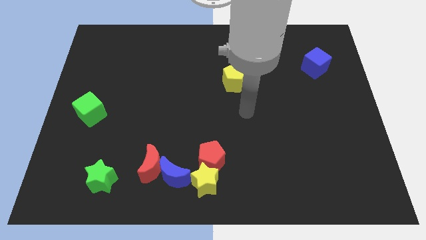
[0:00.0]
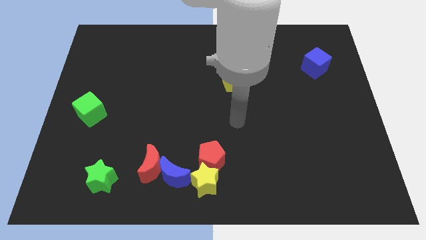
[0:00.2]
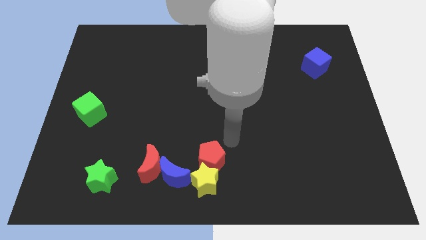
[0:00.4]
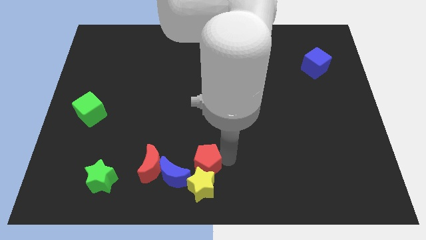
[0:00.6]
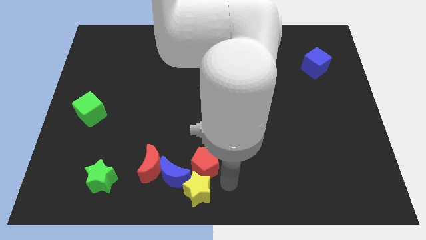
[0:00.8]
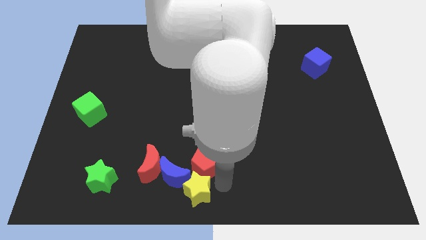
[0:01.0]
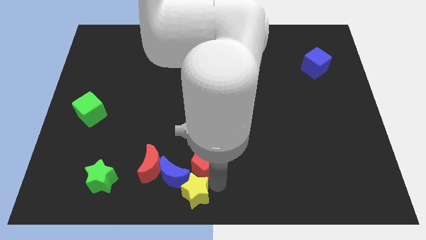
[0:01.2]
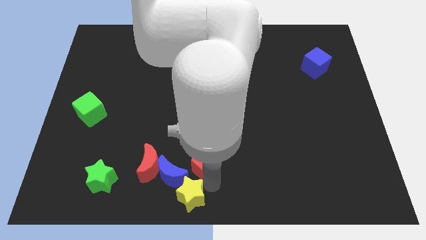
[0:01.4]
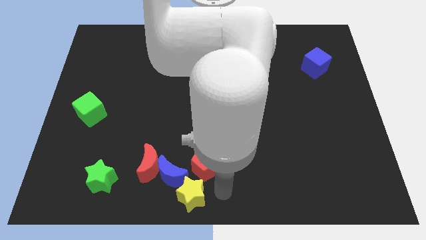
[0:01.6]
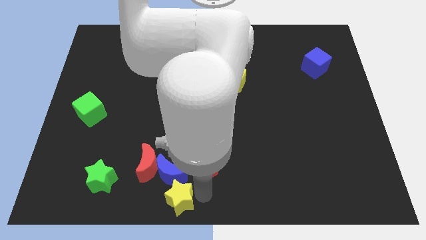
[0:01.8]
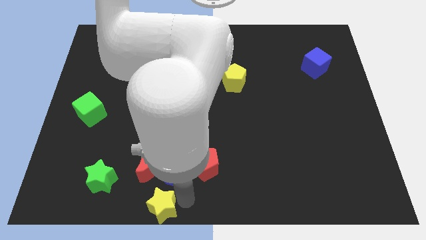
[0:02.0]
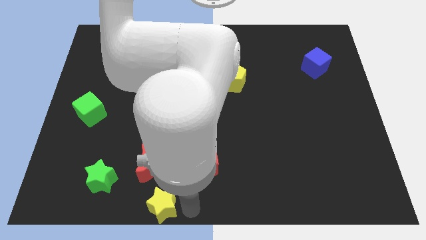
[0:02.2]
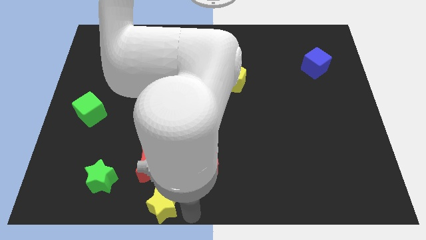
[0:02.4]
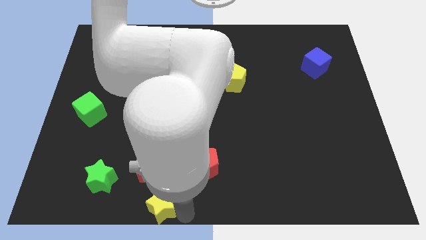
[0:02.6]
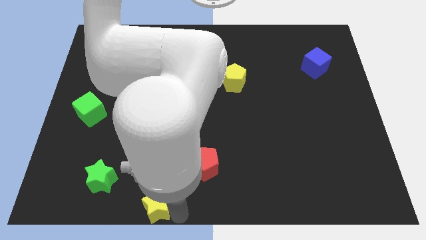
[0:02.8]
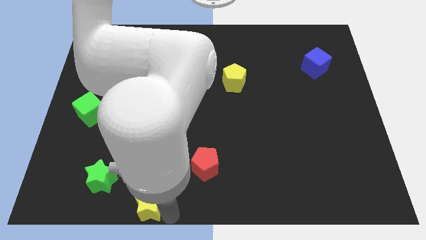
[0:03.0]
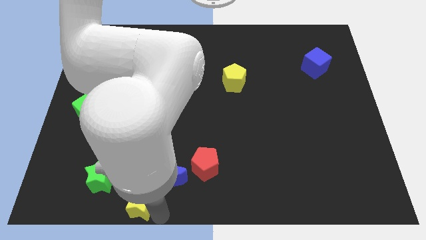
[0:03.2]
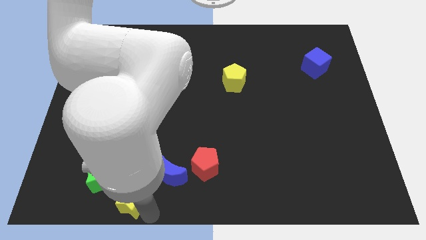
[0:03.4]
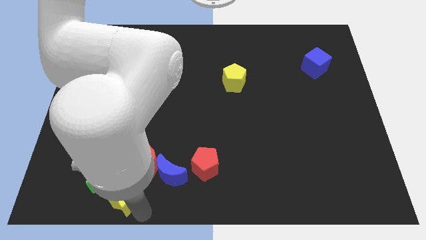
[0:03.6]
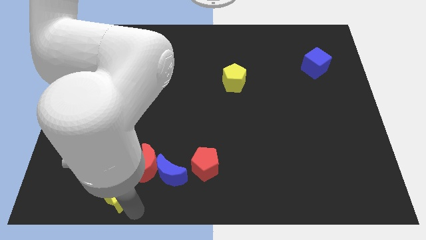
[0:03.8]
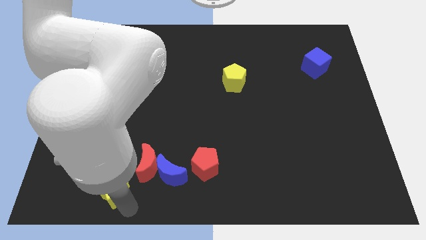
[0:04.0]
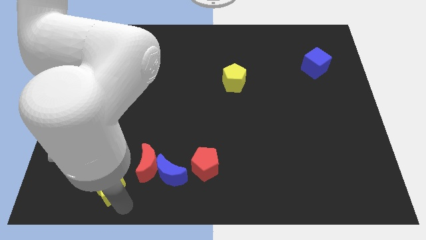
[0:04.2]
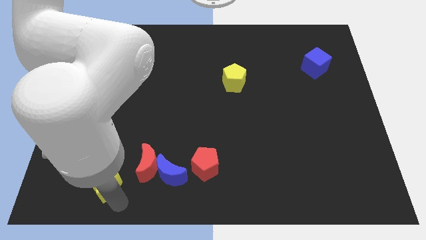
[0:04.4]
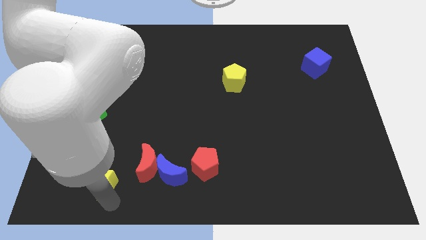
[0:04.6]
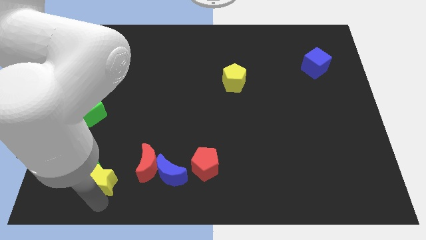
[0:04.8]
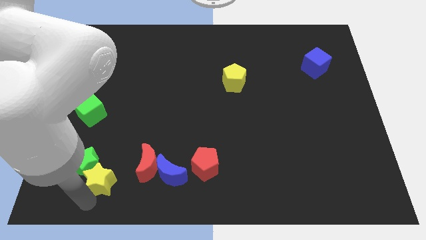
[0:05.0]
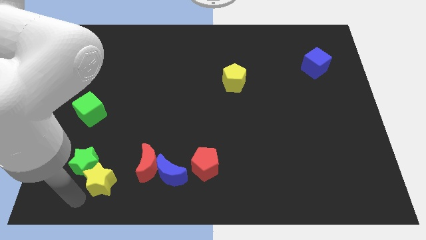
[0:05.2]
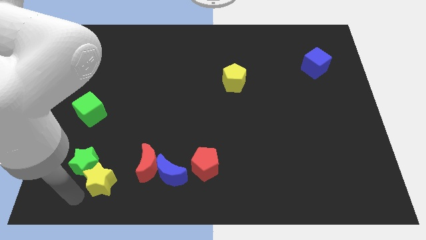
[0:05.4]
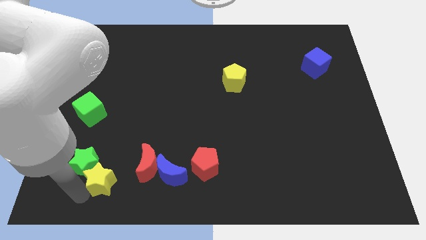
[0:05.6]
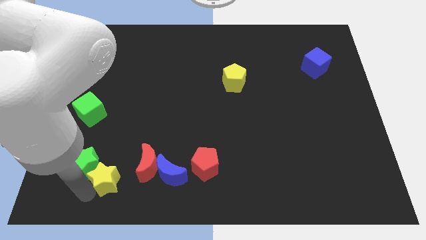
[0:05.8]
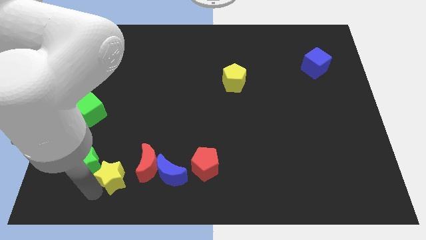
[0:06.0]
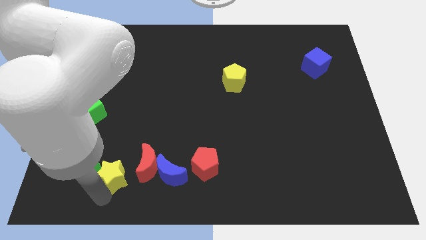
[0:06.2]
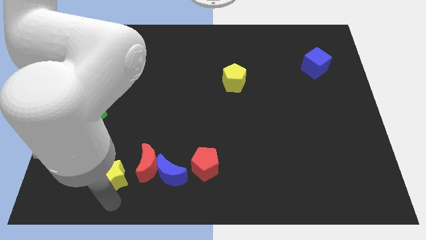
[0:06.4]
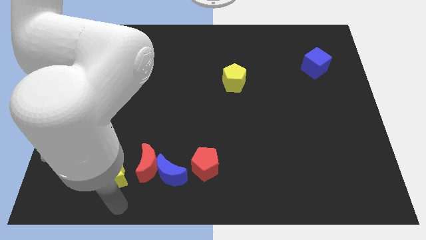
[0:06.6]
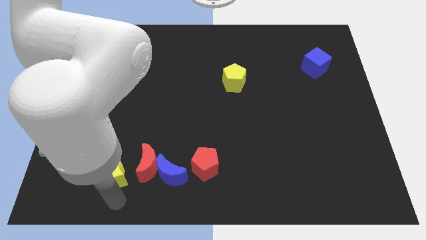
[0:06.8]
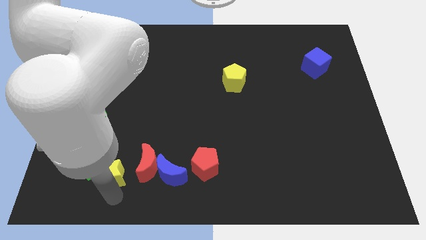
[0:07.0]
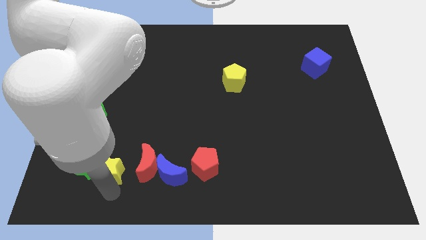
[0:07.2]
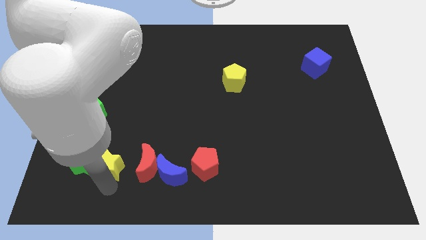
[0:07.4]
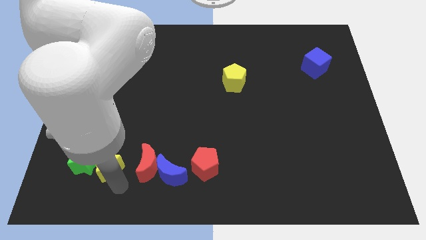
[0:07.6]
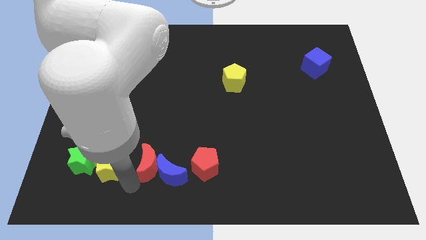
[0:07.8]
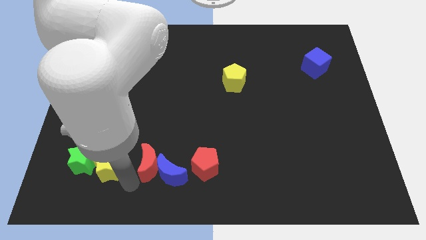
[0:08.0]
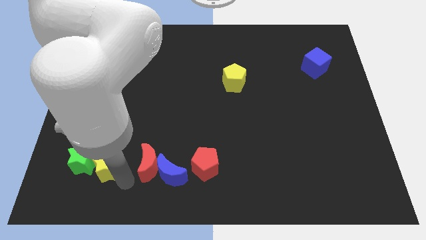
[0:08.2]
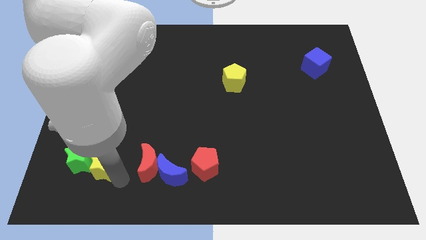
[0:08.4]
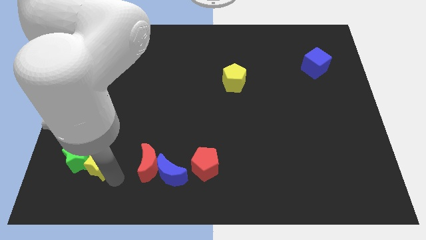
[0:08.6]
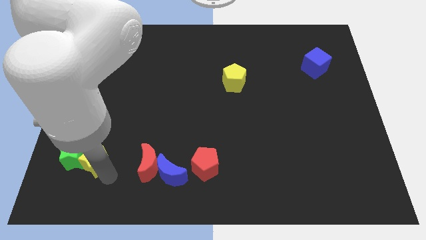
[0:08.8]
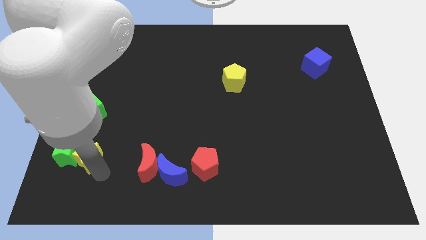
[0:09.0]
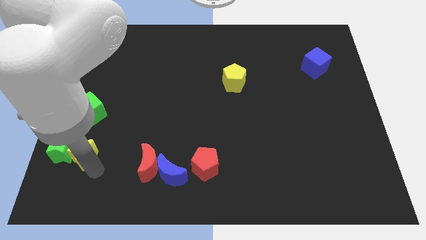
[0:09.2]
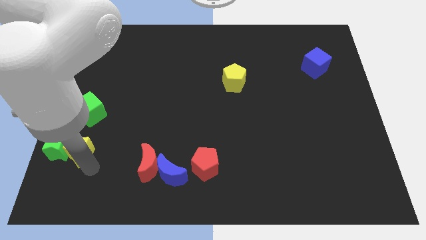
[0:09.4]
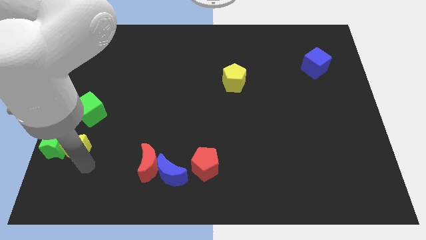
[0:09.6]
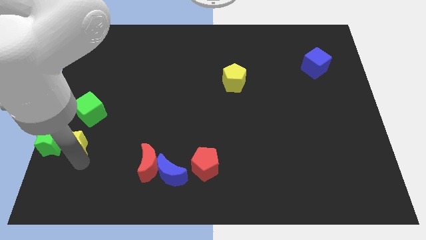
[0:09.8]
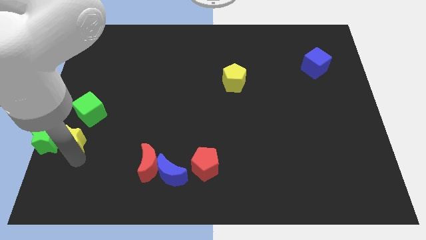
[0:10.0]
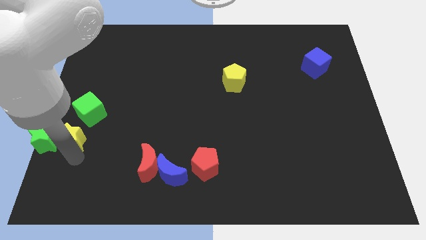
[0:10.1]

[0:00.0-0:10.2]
put the yellow star to the left side of the board
